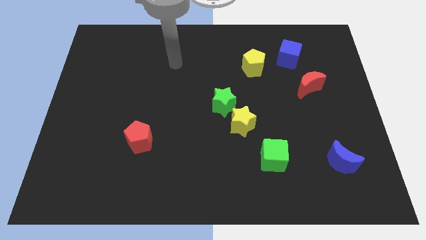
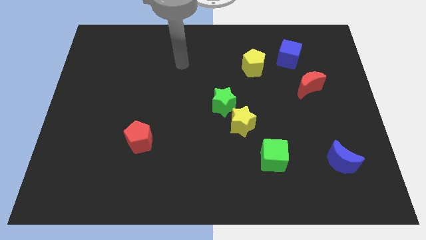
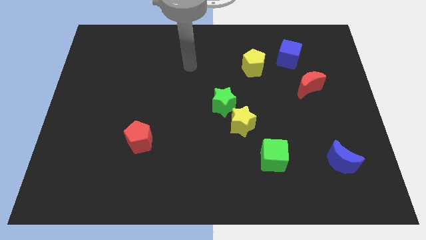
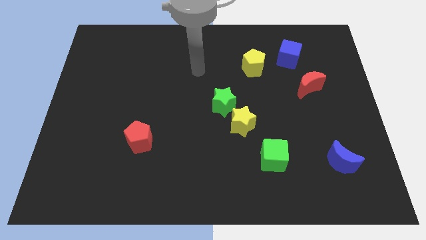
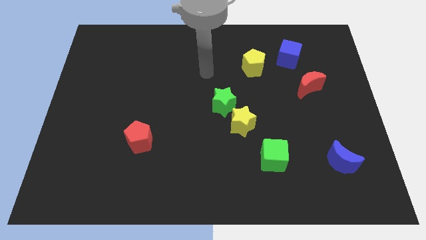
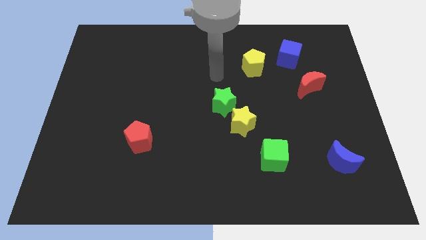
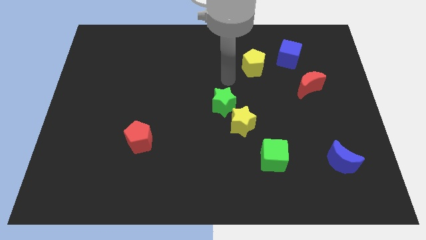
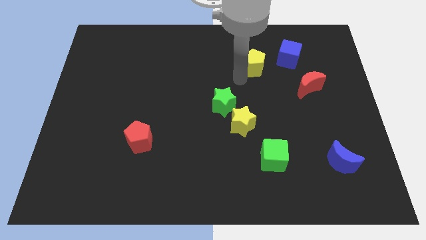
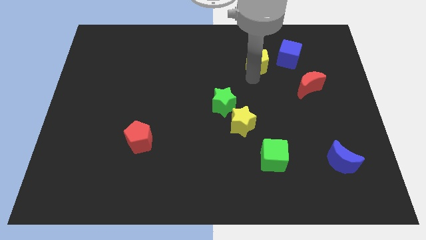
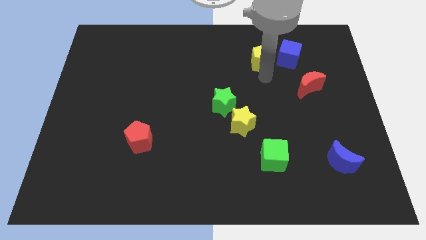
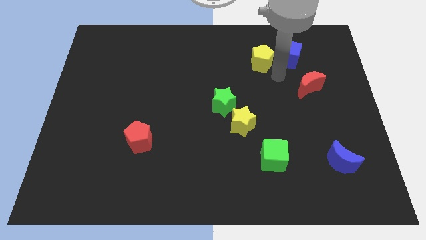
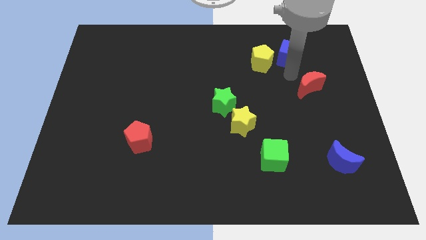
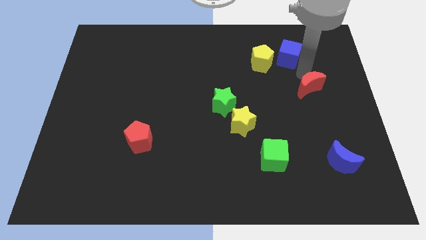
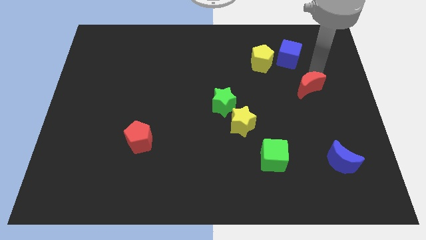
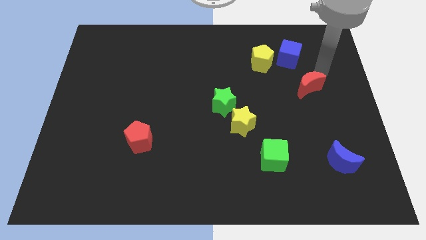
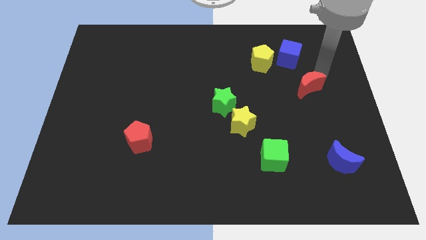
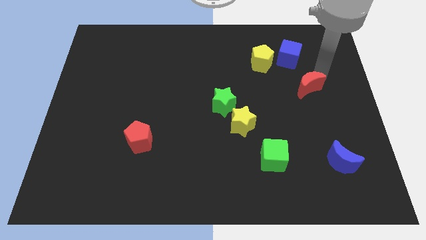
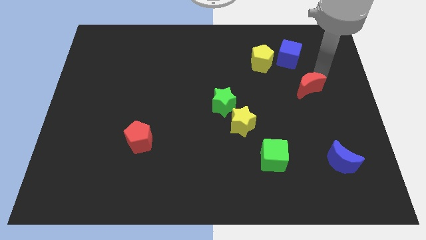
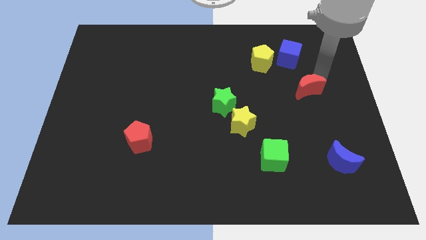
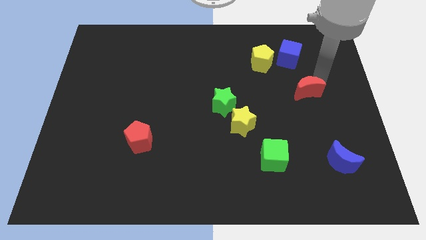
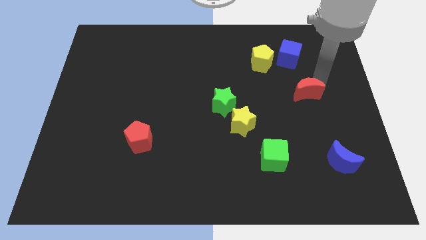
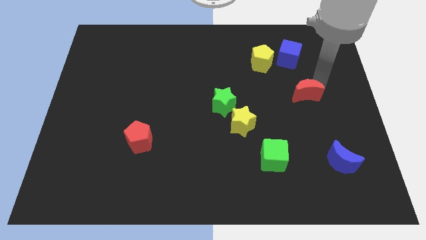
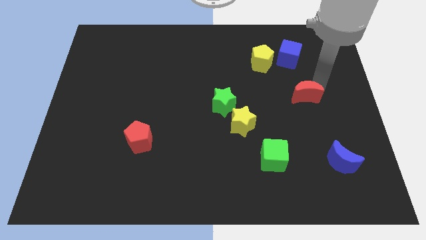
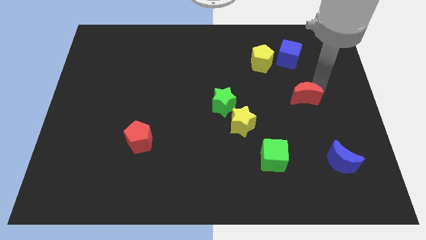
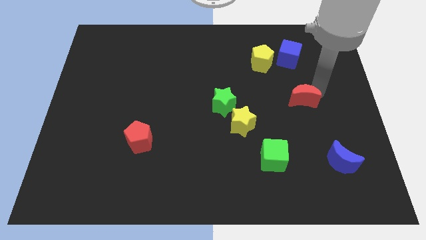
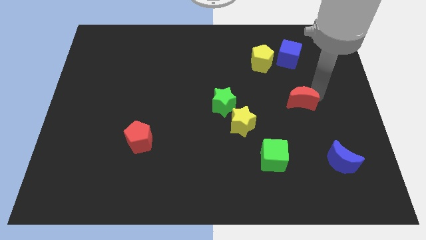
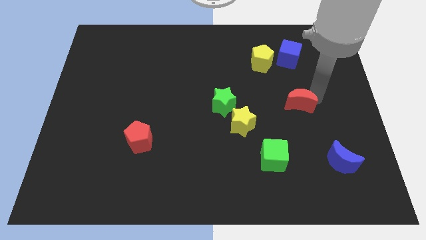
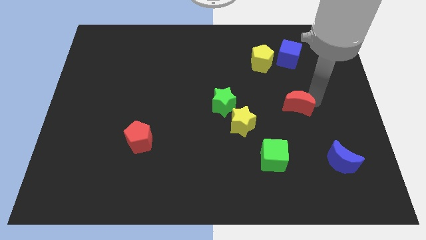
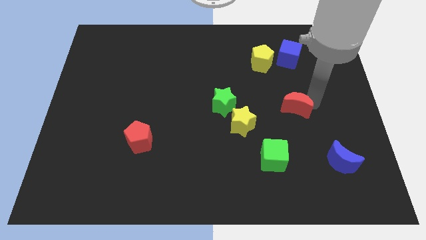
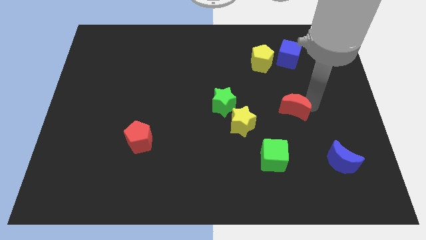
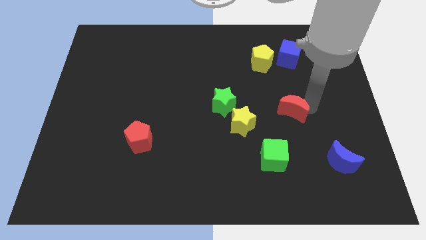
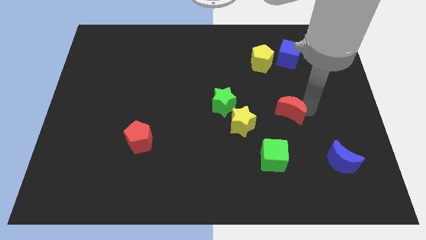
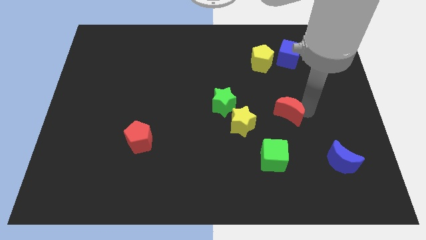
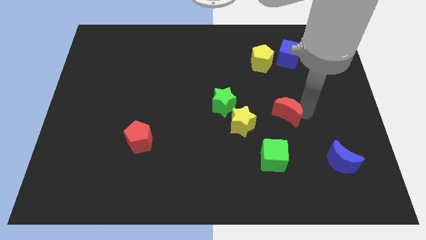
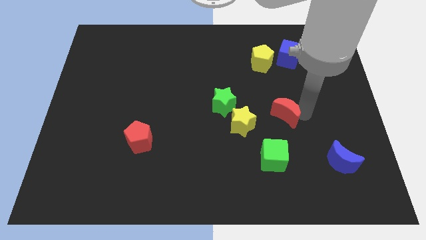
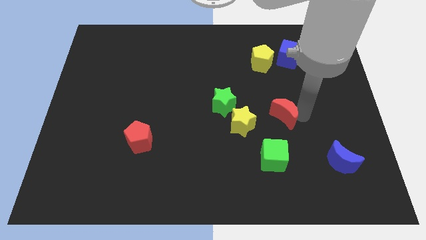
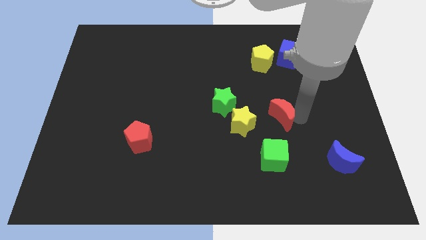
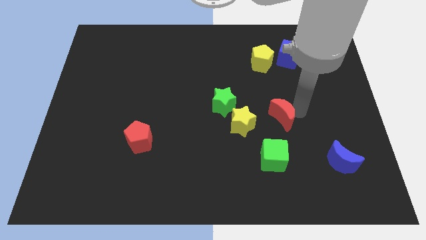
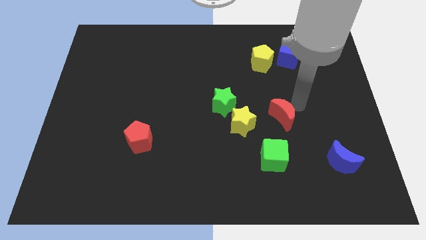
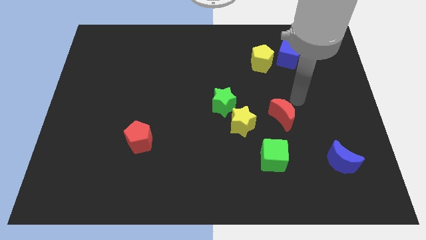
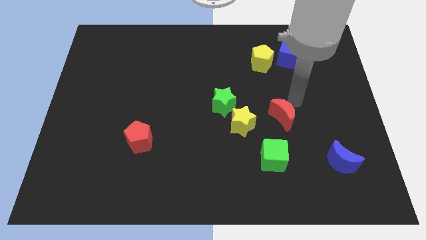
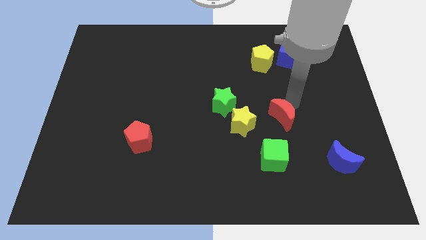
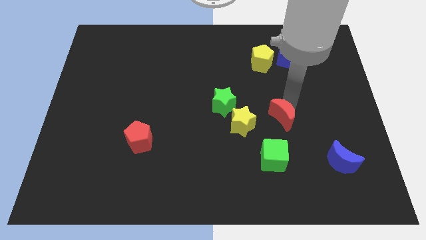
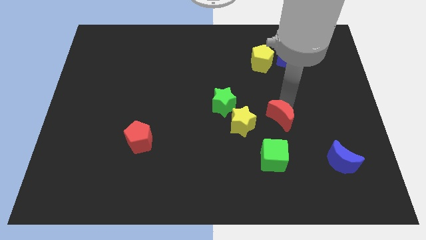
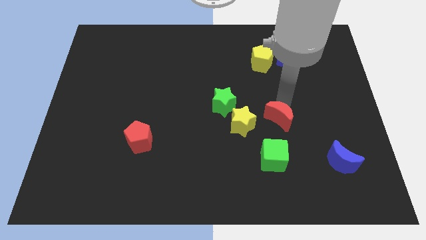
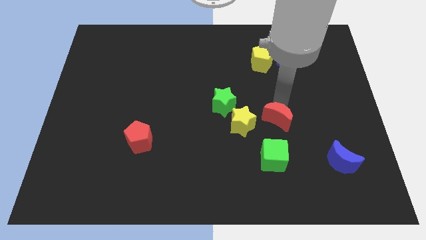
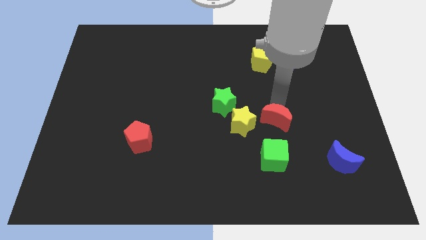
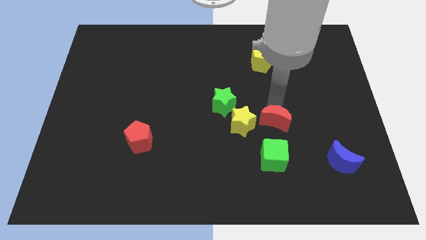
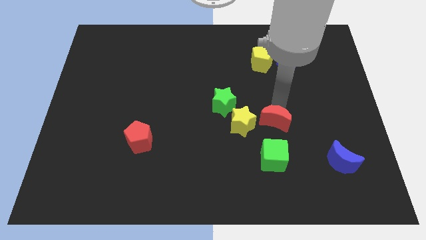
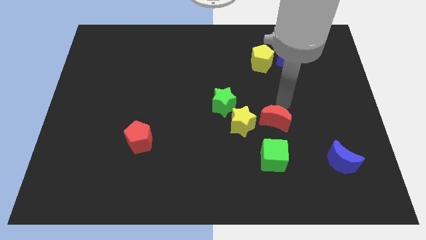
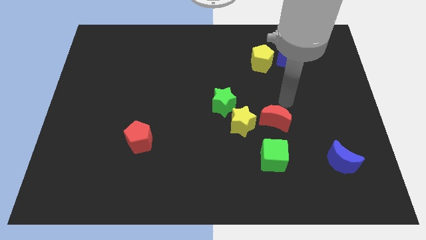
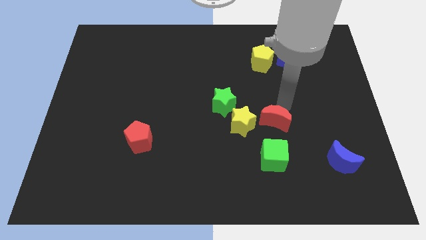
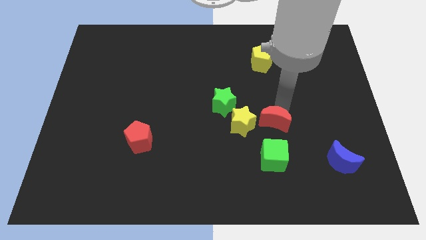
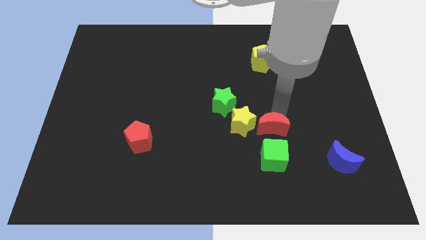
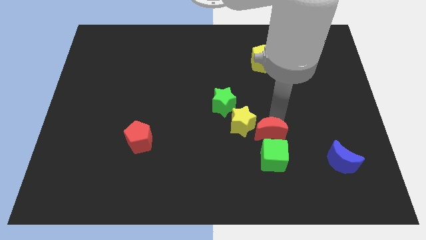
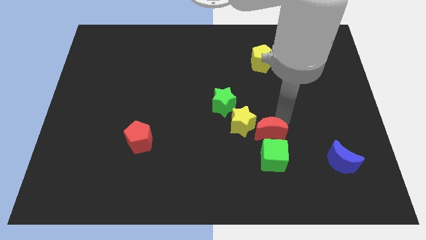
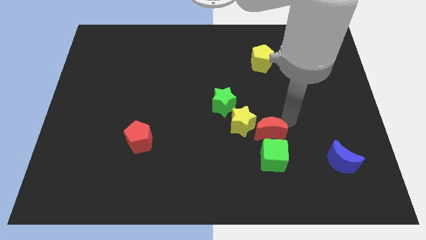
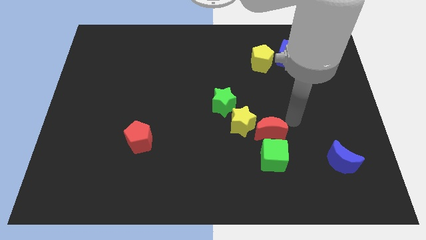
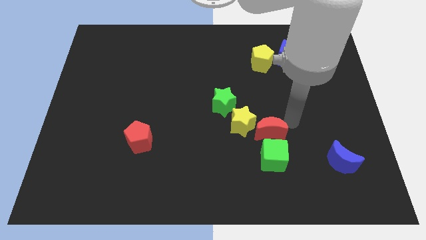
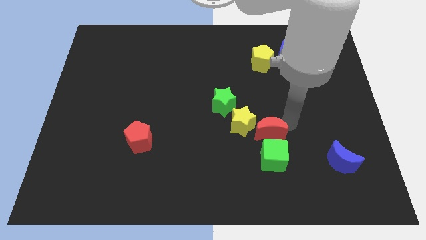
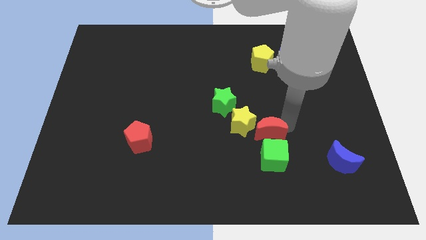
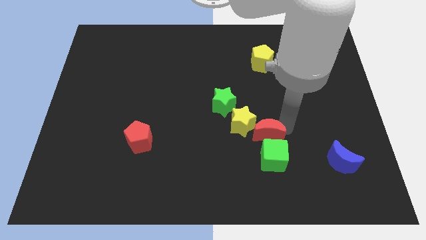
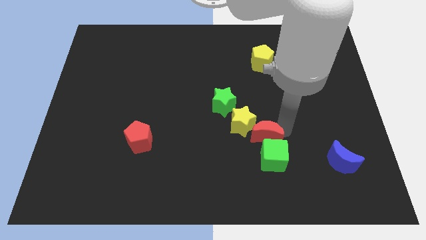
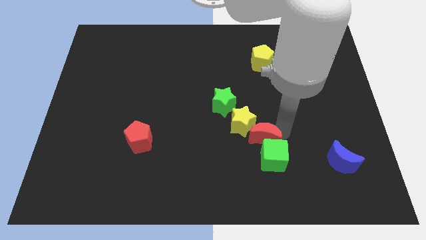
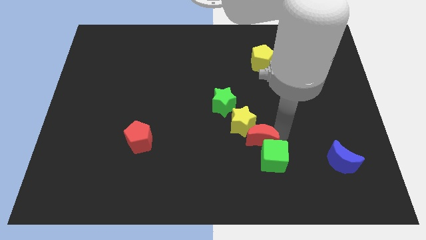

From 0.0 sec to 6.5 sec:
move the red moon diagonally down and left

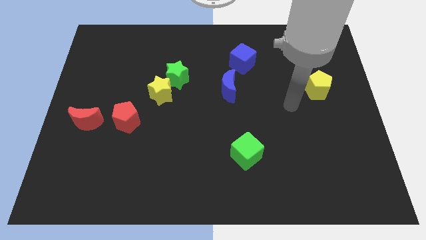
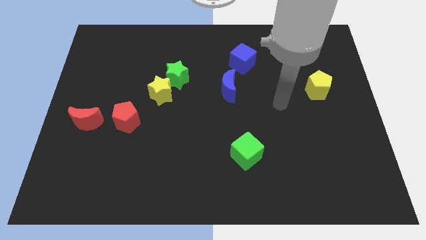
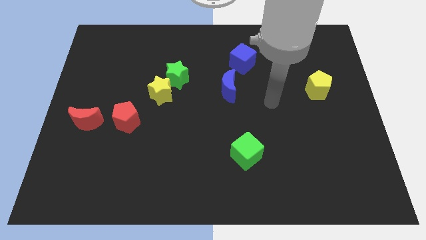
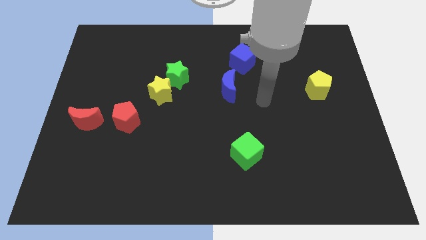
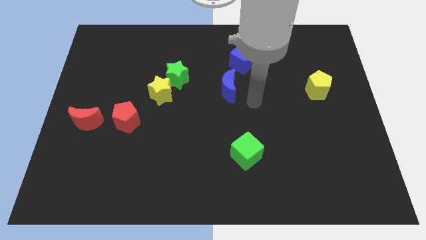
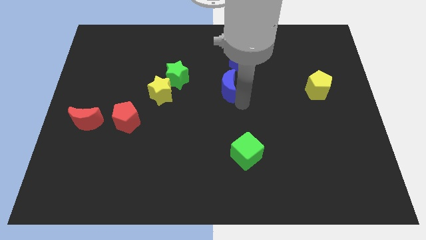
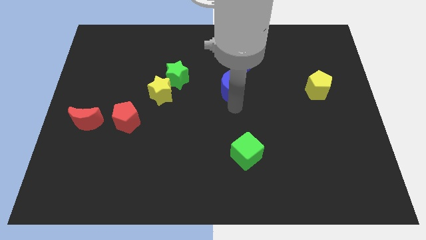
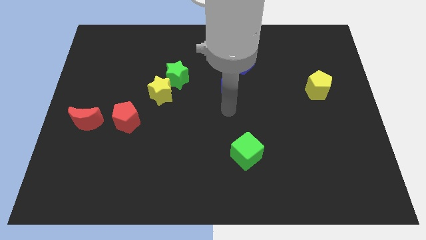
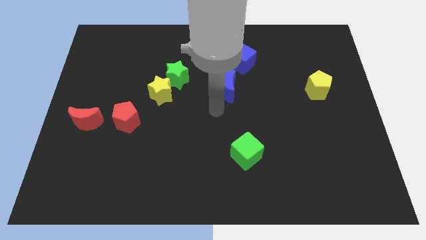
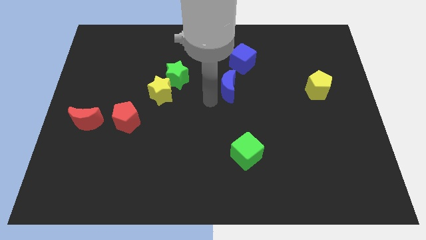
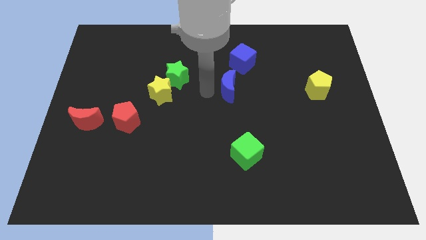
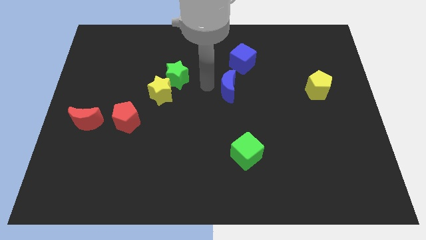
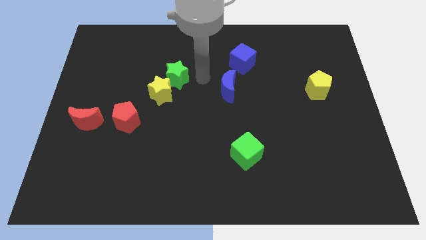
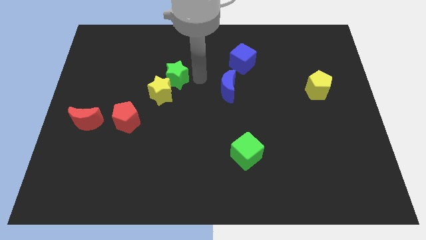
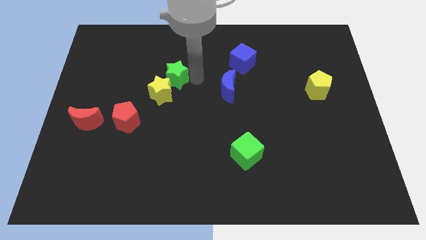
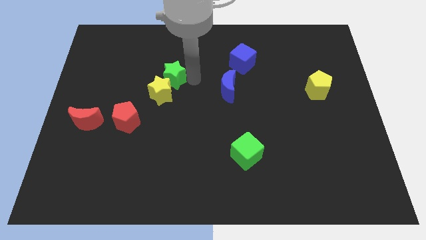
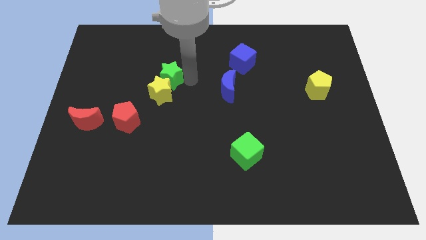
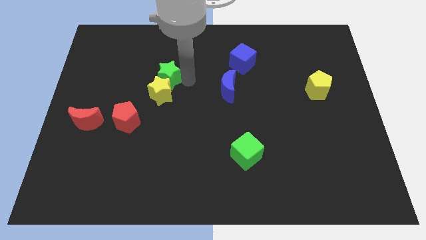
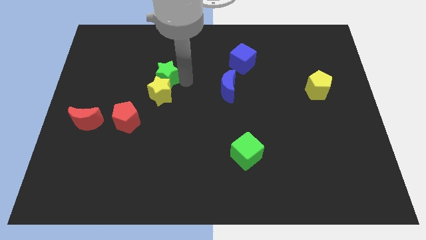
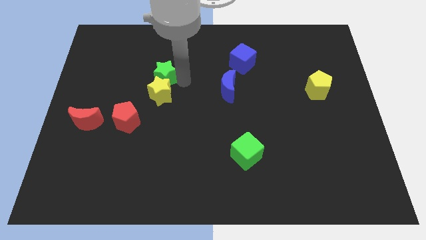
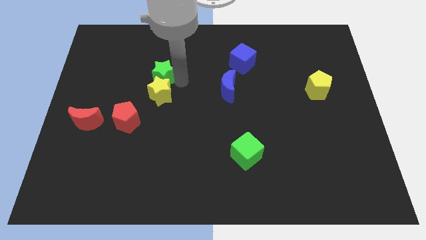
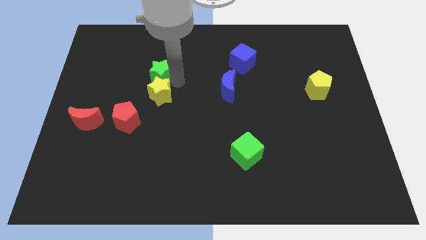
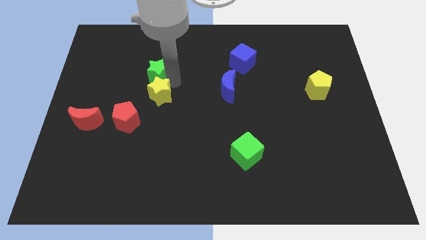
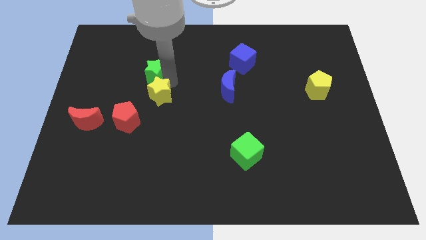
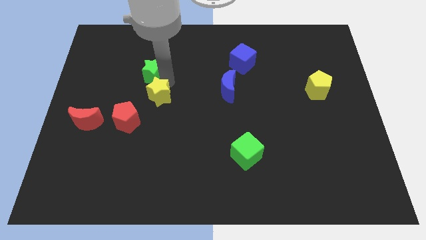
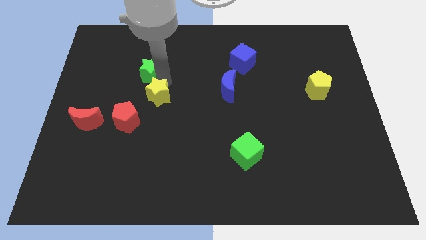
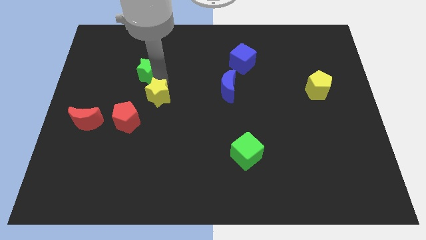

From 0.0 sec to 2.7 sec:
move the green star somewhat to the left
